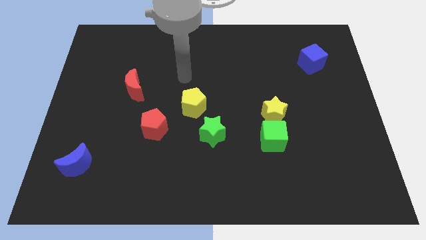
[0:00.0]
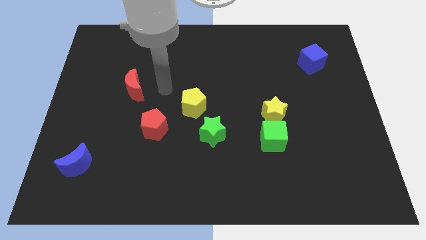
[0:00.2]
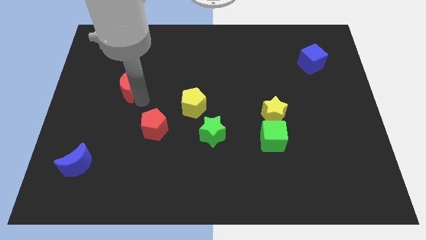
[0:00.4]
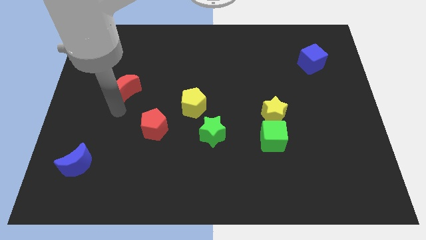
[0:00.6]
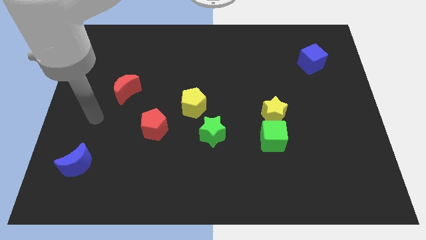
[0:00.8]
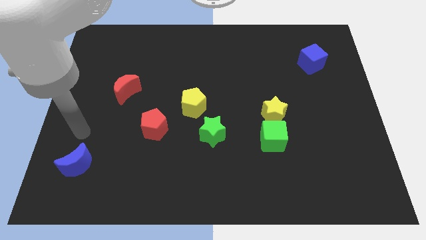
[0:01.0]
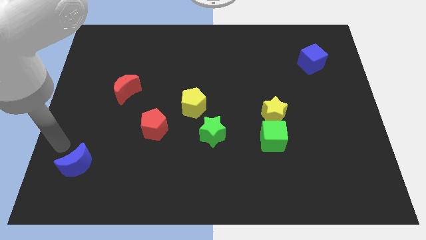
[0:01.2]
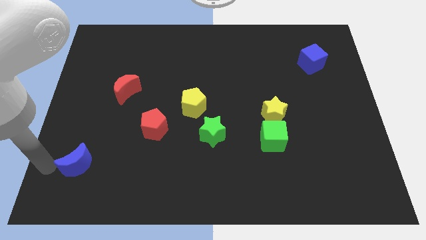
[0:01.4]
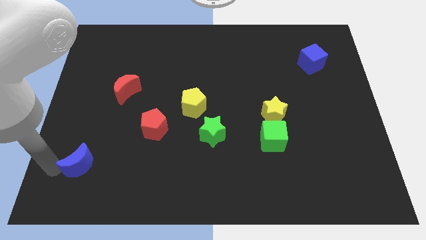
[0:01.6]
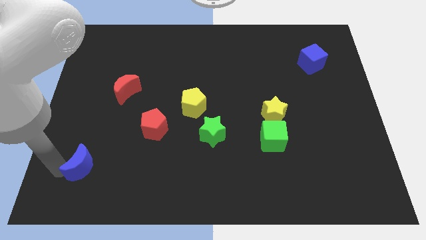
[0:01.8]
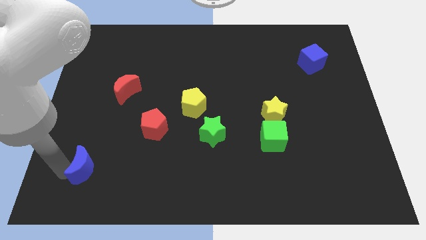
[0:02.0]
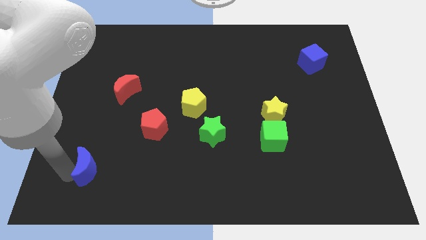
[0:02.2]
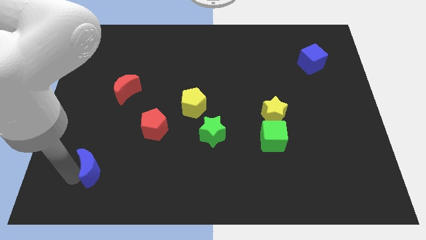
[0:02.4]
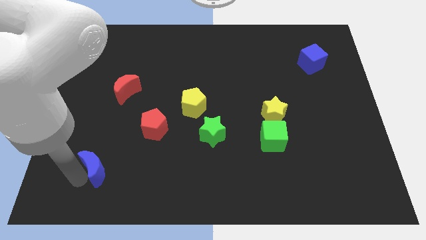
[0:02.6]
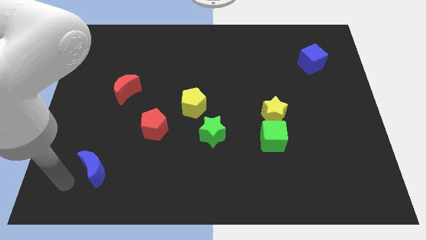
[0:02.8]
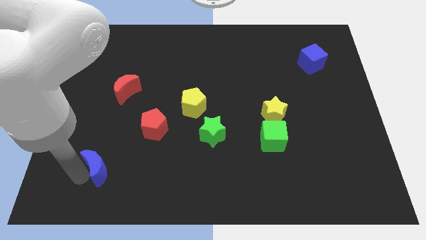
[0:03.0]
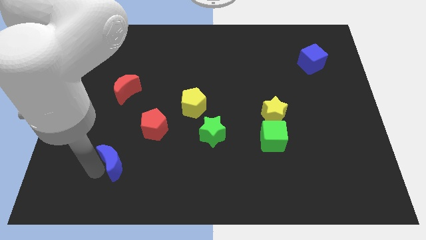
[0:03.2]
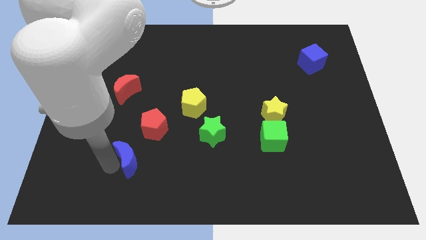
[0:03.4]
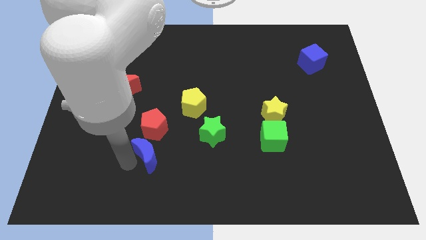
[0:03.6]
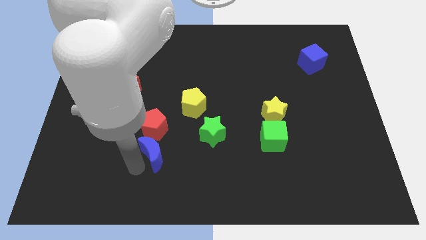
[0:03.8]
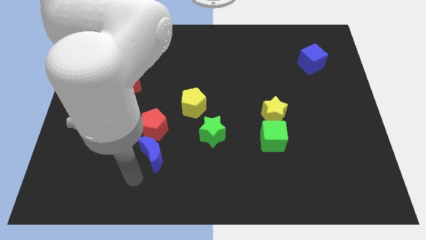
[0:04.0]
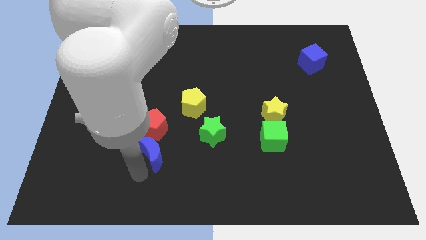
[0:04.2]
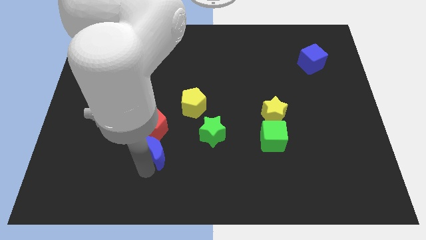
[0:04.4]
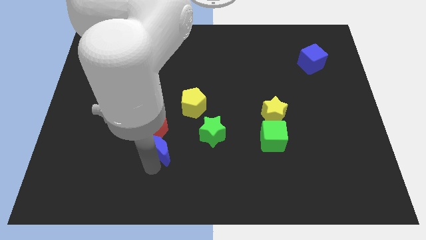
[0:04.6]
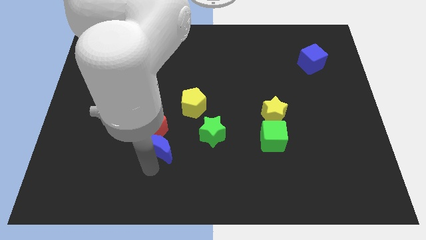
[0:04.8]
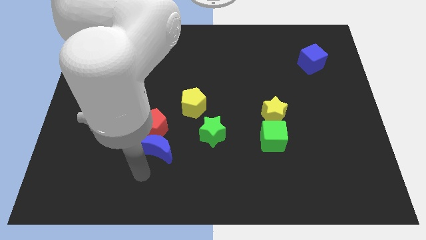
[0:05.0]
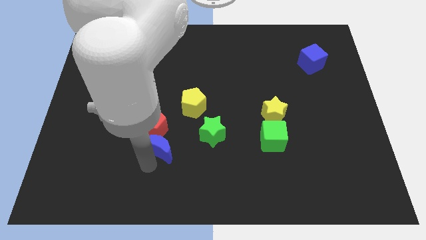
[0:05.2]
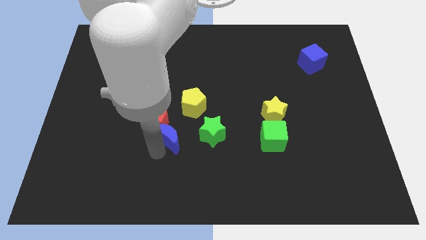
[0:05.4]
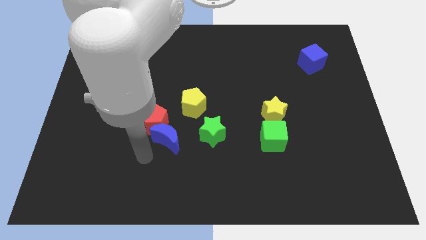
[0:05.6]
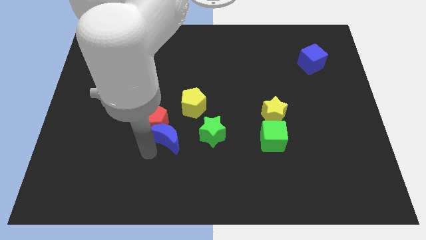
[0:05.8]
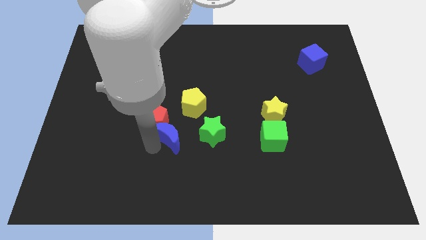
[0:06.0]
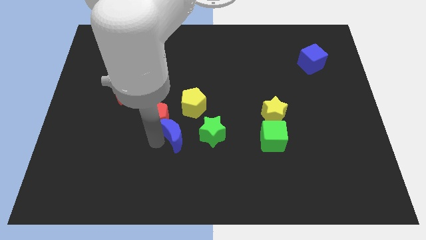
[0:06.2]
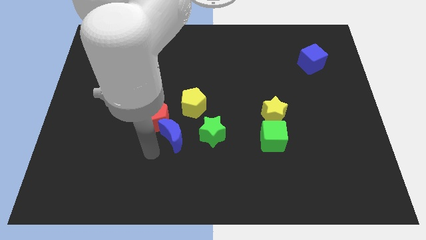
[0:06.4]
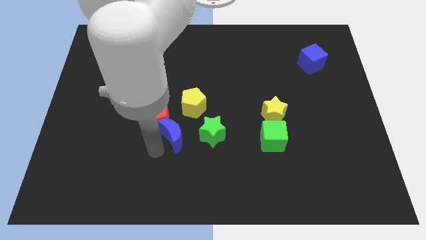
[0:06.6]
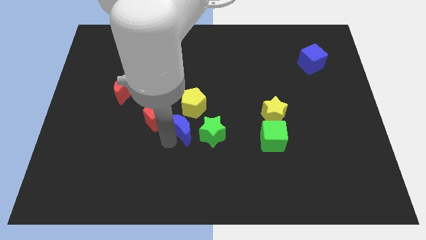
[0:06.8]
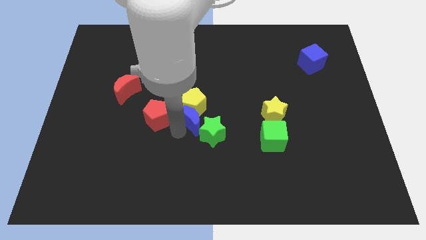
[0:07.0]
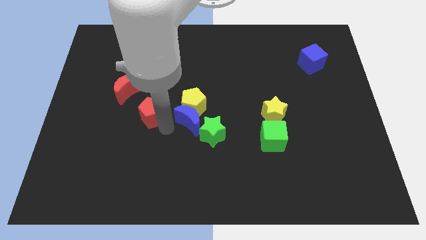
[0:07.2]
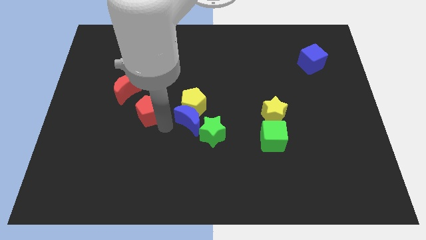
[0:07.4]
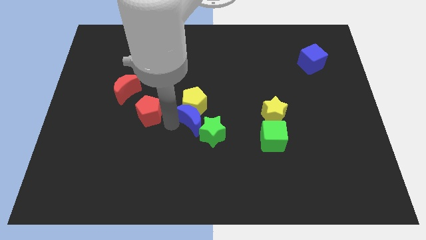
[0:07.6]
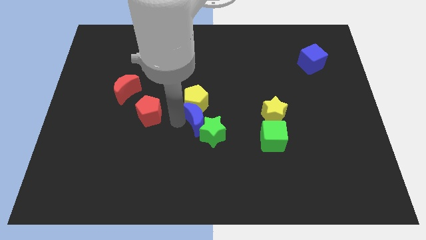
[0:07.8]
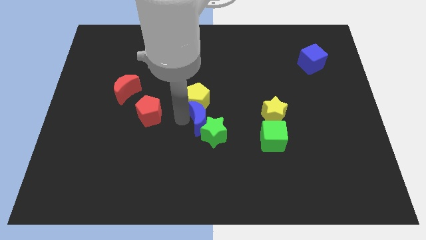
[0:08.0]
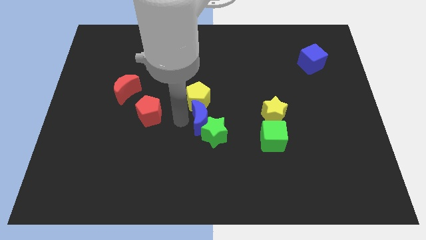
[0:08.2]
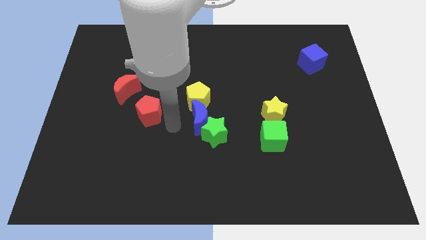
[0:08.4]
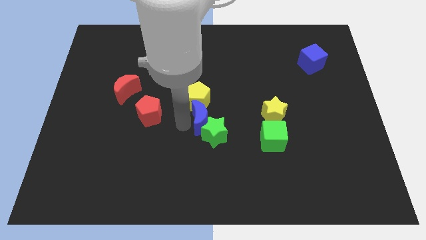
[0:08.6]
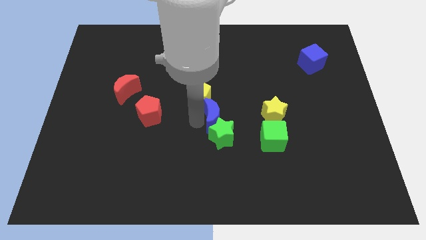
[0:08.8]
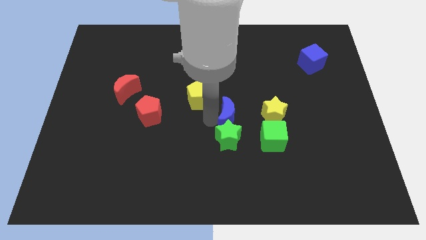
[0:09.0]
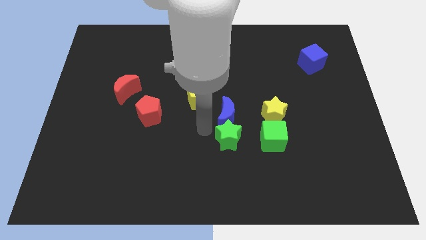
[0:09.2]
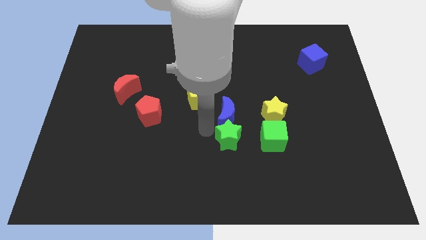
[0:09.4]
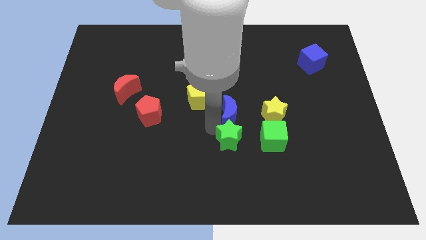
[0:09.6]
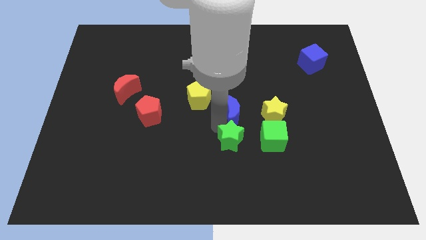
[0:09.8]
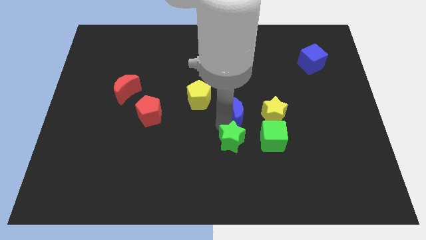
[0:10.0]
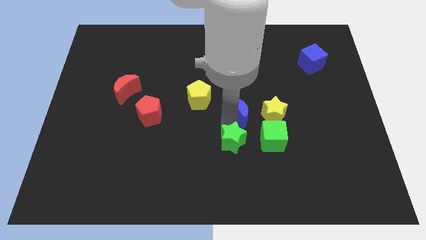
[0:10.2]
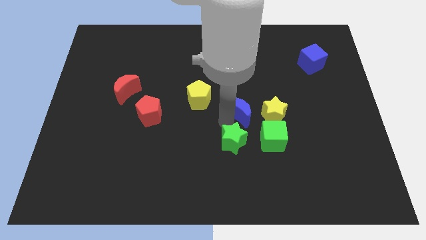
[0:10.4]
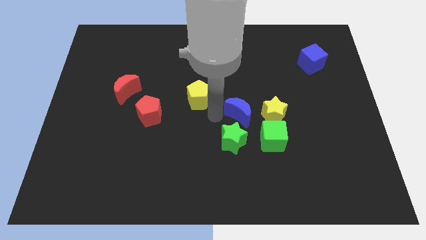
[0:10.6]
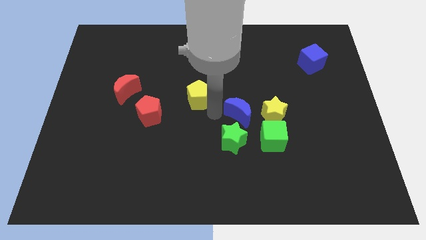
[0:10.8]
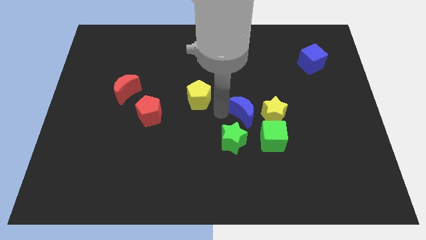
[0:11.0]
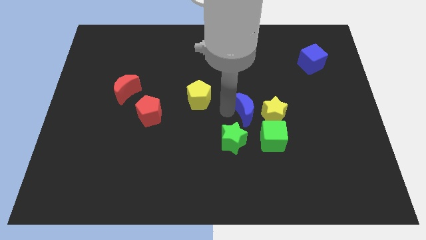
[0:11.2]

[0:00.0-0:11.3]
move the blue moon towards the yellow star

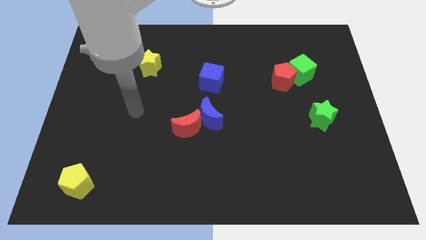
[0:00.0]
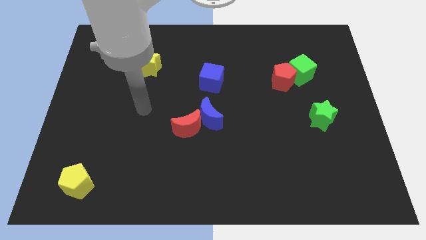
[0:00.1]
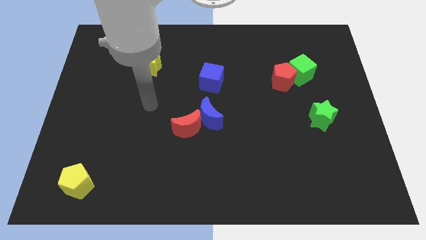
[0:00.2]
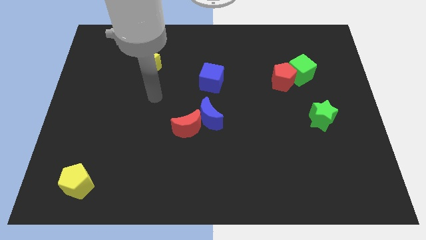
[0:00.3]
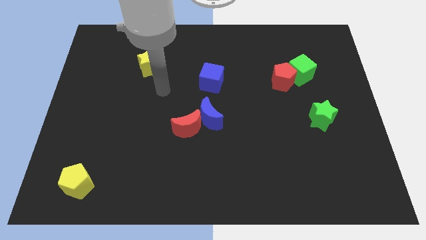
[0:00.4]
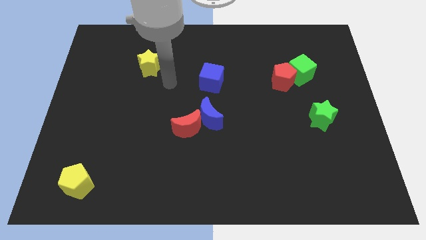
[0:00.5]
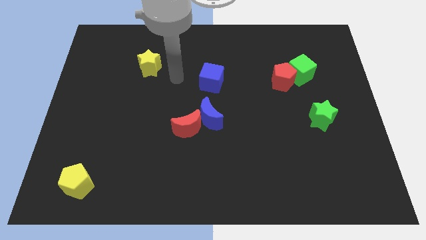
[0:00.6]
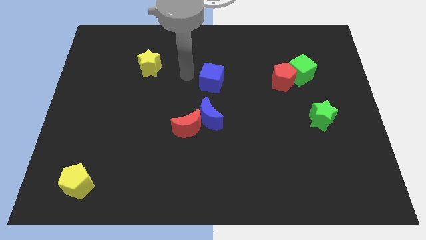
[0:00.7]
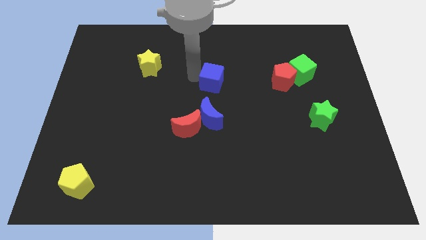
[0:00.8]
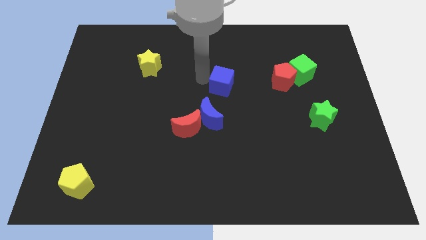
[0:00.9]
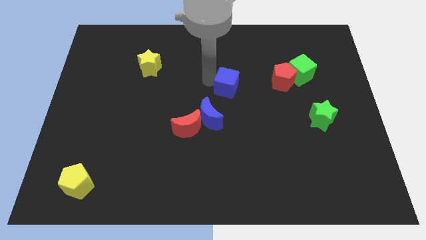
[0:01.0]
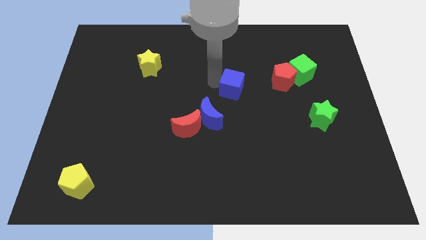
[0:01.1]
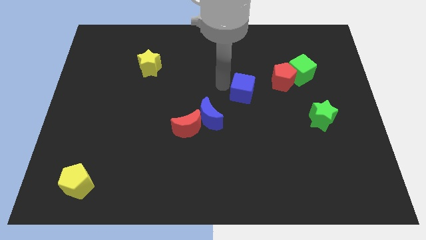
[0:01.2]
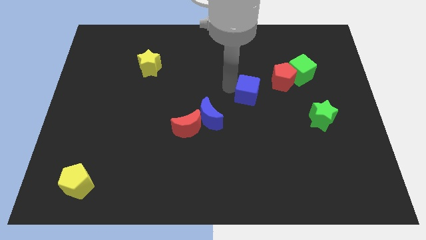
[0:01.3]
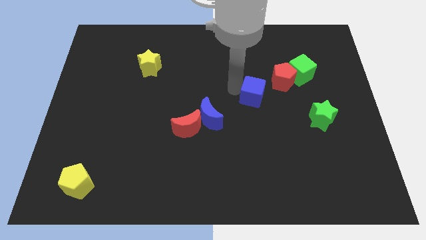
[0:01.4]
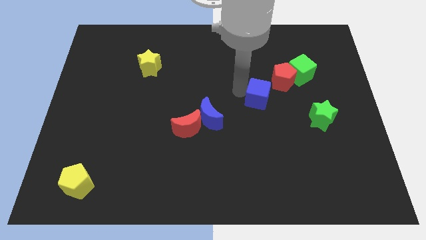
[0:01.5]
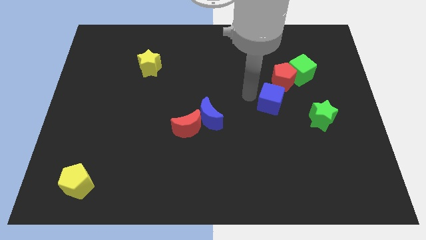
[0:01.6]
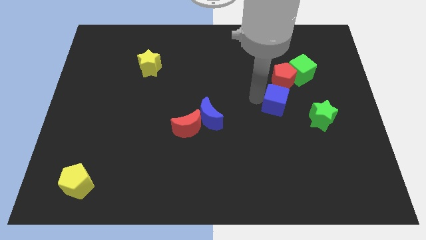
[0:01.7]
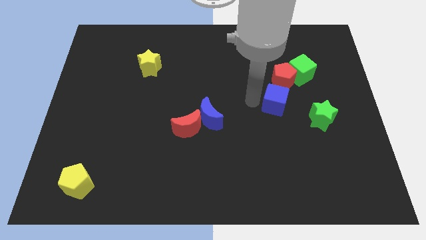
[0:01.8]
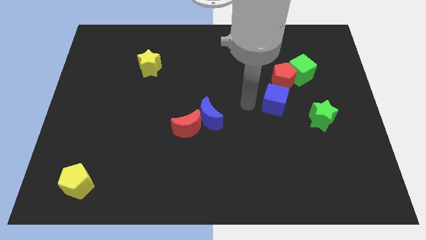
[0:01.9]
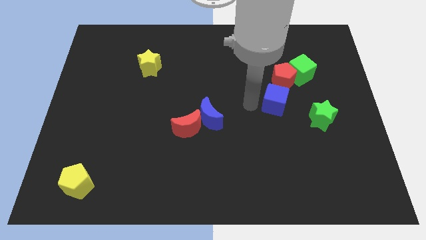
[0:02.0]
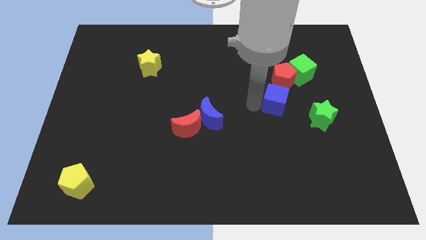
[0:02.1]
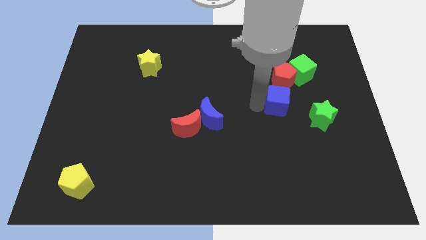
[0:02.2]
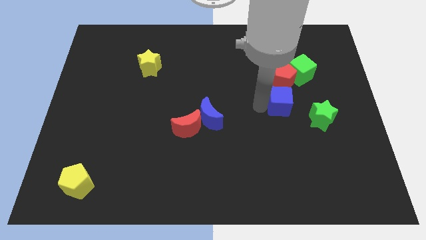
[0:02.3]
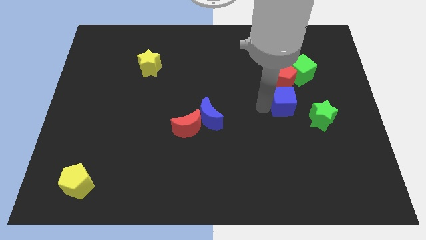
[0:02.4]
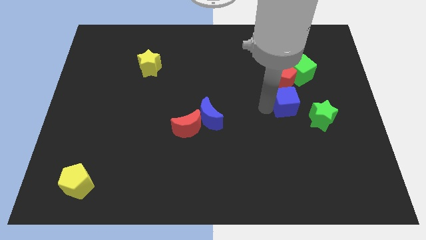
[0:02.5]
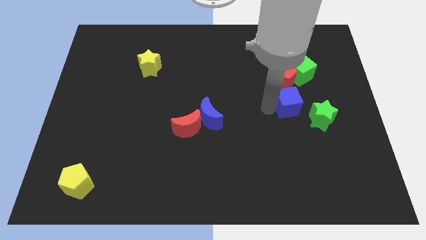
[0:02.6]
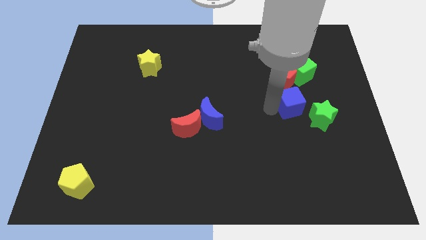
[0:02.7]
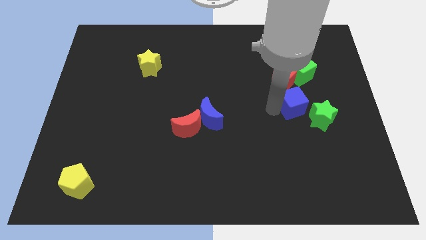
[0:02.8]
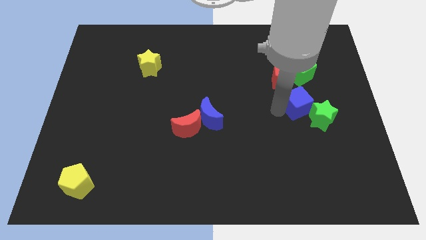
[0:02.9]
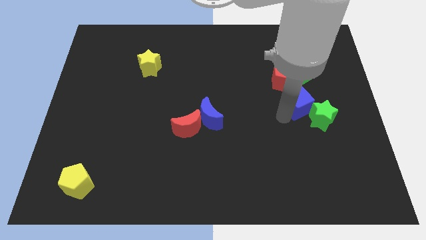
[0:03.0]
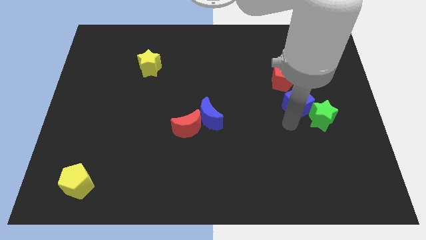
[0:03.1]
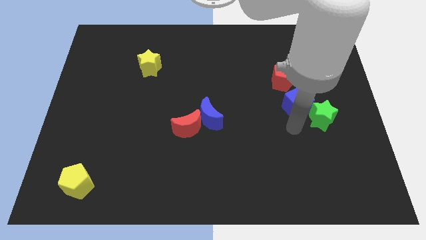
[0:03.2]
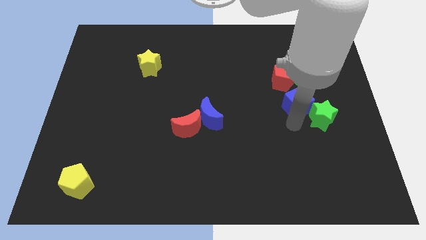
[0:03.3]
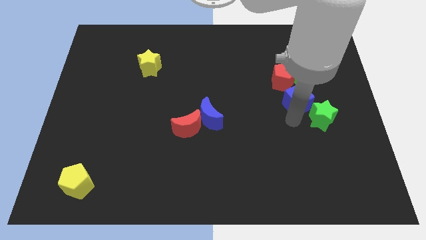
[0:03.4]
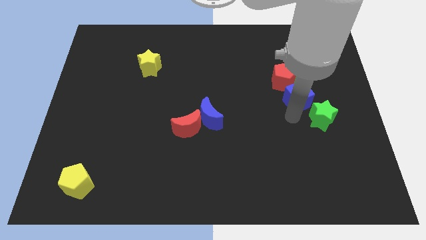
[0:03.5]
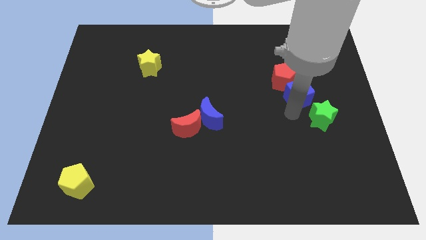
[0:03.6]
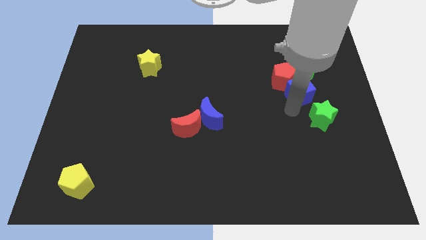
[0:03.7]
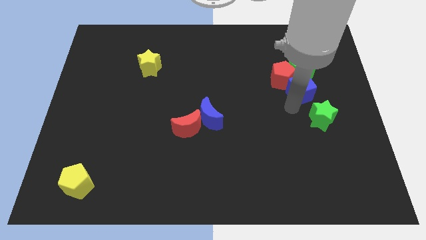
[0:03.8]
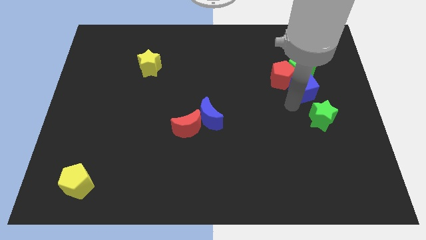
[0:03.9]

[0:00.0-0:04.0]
move the blue cube next to the green cube
